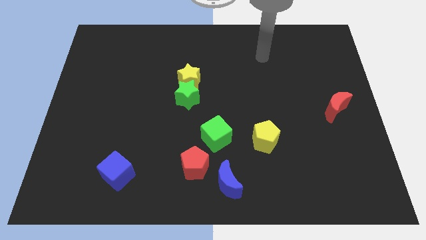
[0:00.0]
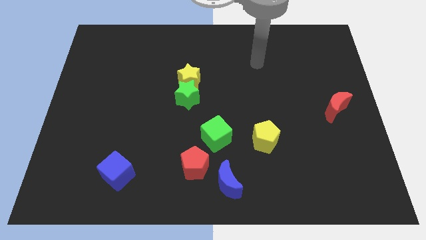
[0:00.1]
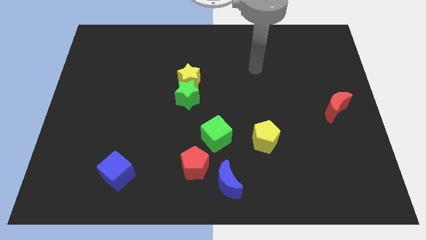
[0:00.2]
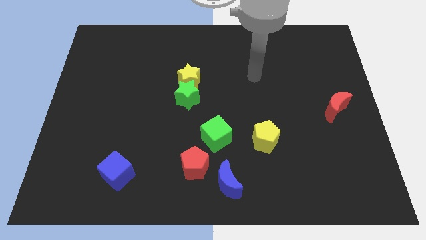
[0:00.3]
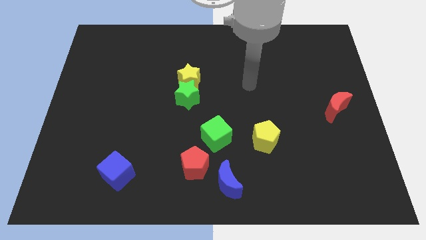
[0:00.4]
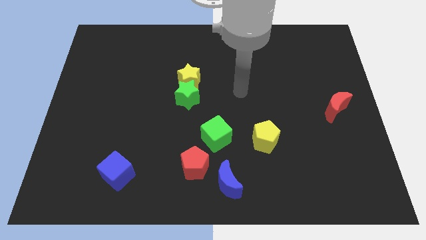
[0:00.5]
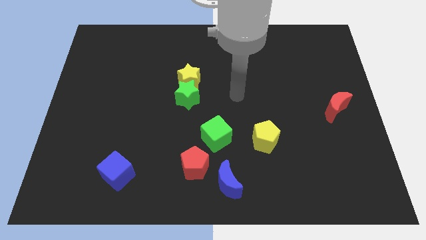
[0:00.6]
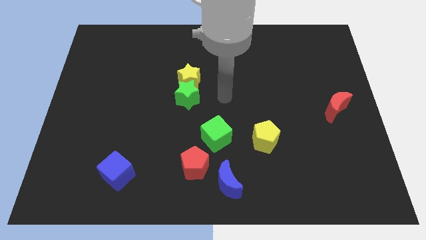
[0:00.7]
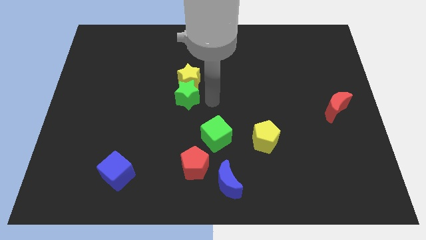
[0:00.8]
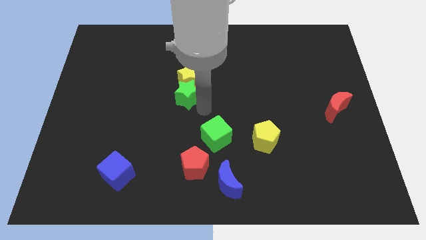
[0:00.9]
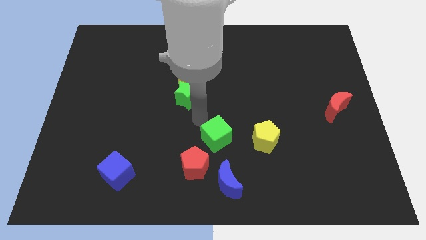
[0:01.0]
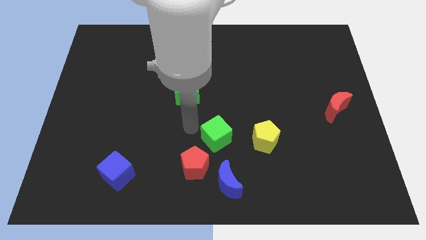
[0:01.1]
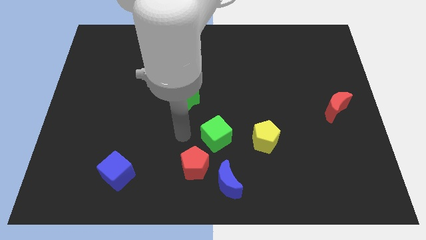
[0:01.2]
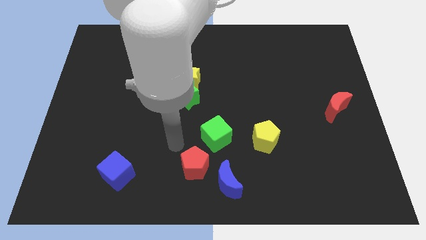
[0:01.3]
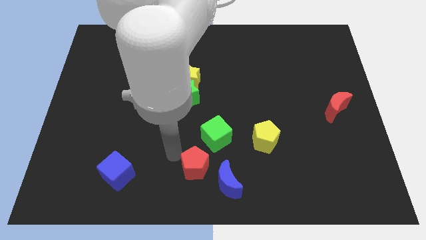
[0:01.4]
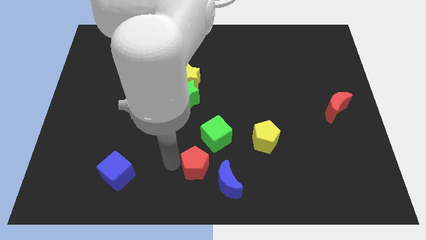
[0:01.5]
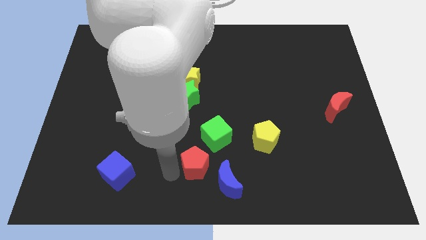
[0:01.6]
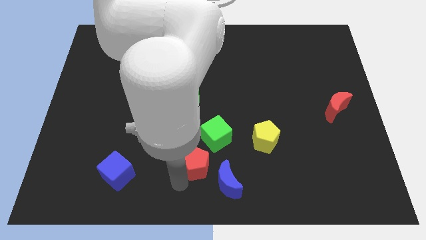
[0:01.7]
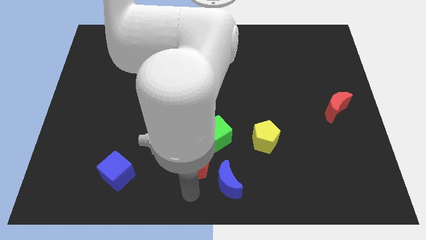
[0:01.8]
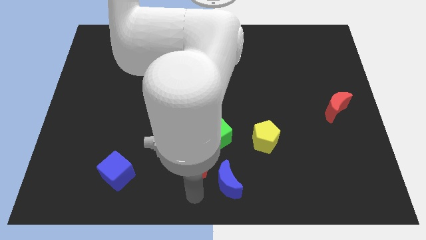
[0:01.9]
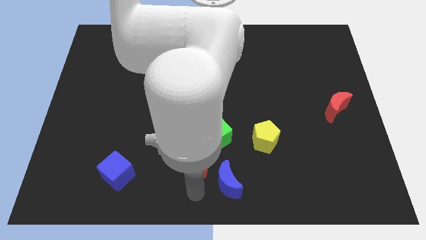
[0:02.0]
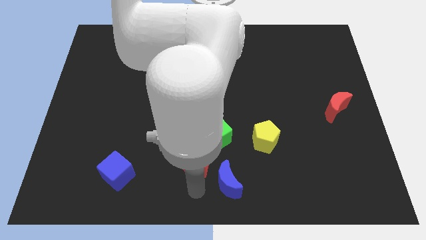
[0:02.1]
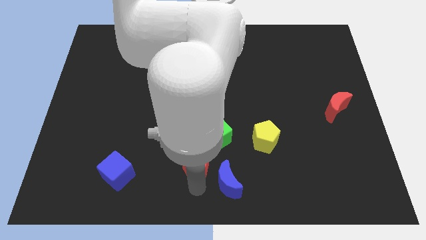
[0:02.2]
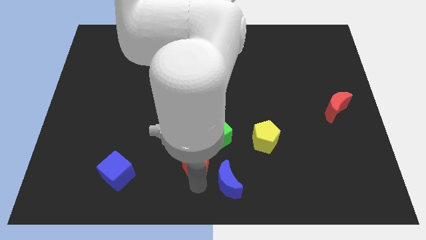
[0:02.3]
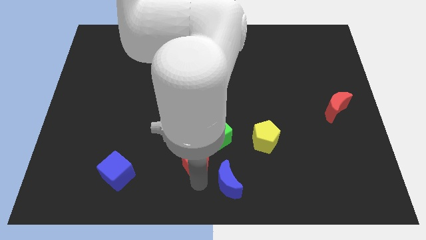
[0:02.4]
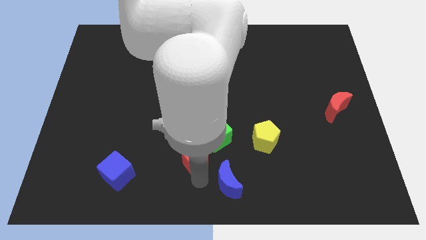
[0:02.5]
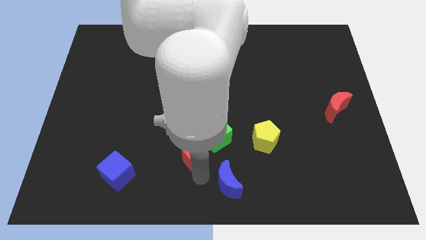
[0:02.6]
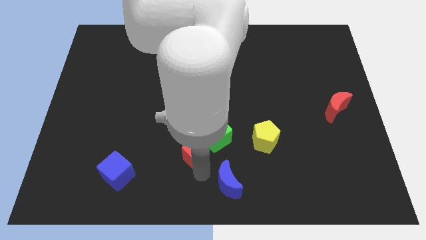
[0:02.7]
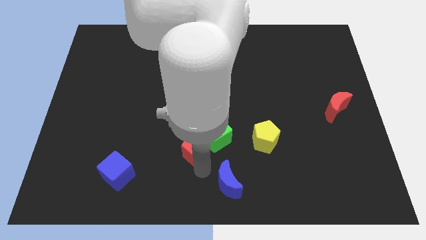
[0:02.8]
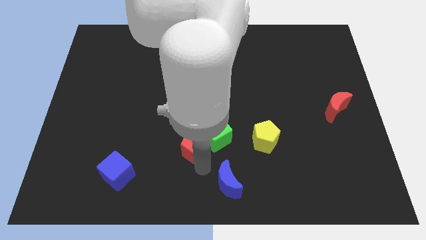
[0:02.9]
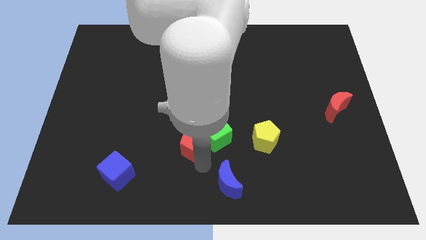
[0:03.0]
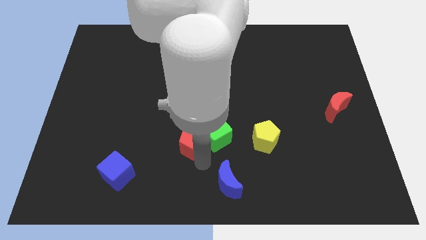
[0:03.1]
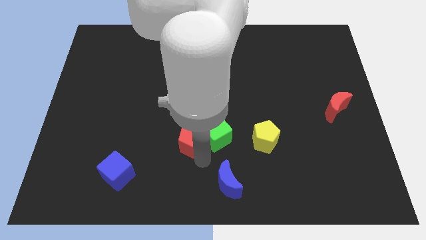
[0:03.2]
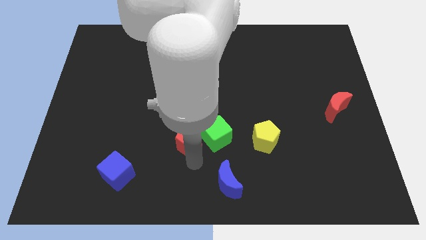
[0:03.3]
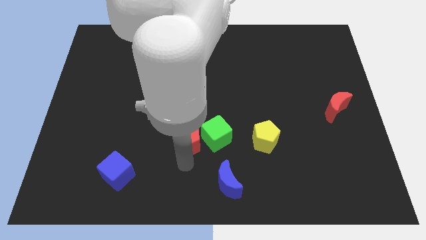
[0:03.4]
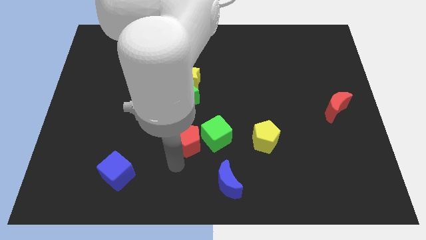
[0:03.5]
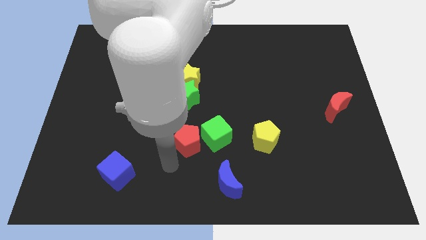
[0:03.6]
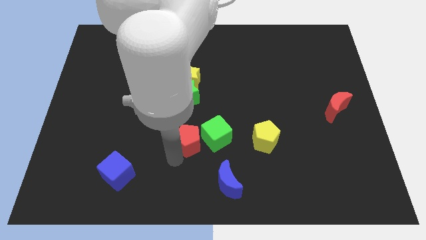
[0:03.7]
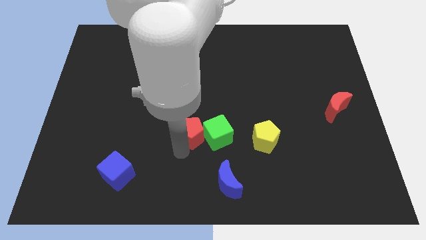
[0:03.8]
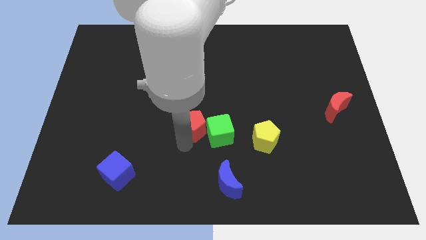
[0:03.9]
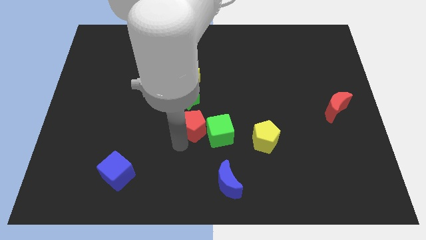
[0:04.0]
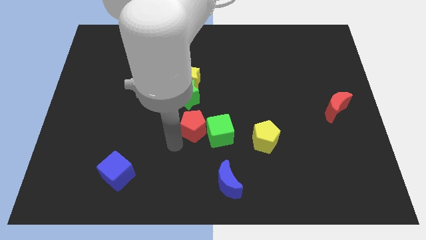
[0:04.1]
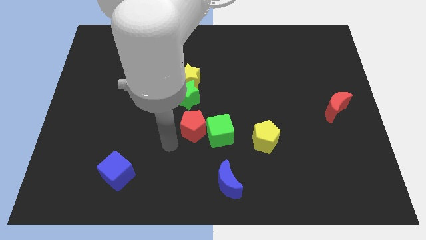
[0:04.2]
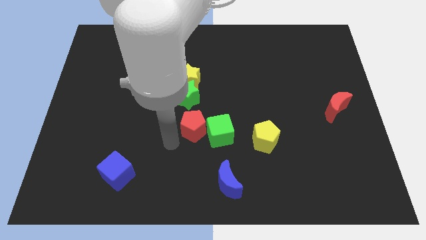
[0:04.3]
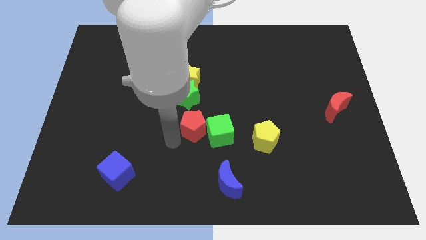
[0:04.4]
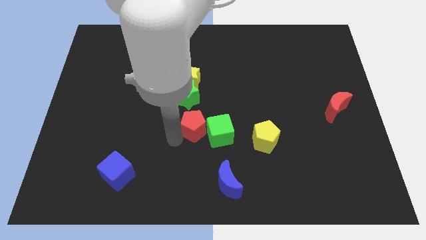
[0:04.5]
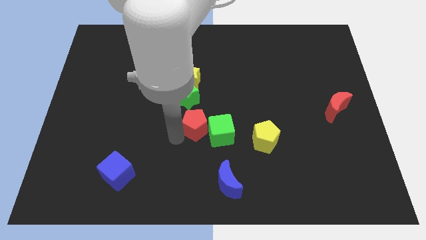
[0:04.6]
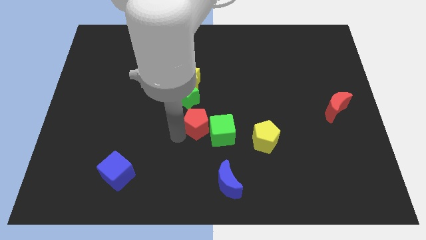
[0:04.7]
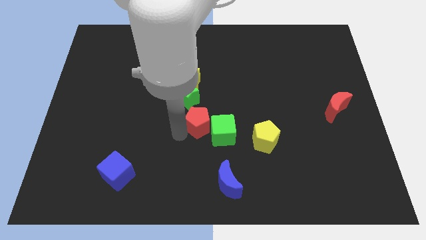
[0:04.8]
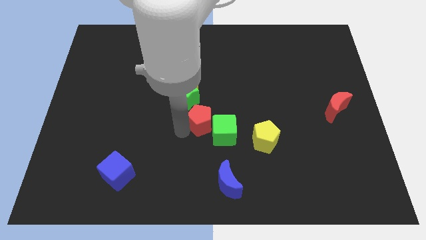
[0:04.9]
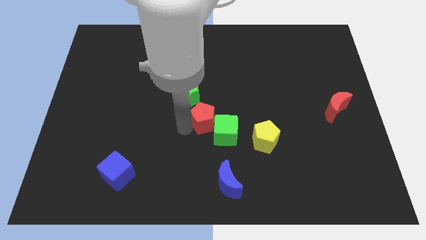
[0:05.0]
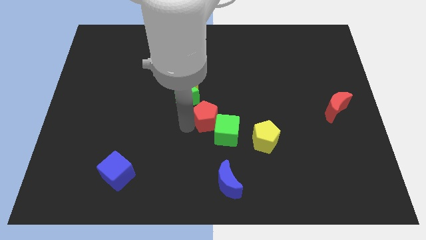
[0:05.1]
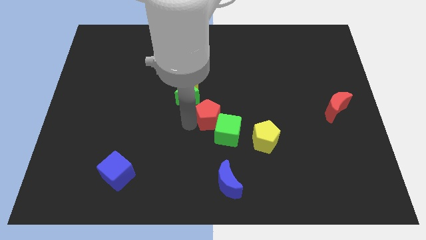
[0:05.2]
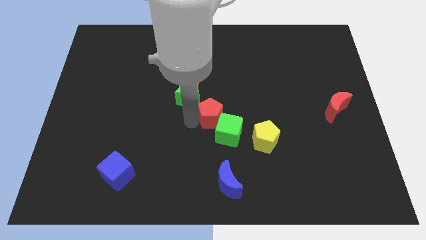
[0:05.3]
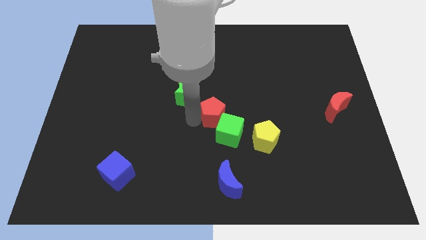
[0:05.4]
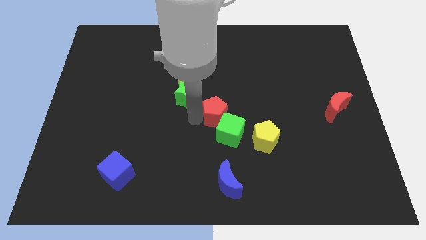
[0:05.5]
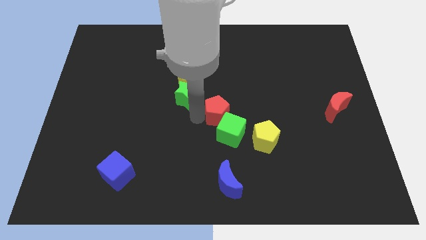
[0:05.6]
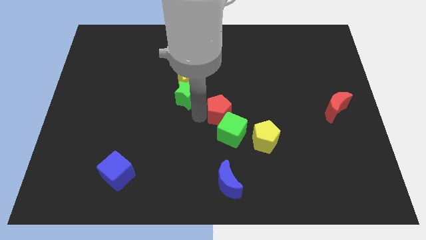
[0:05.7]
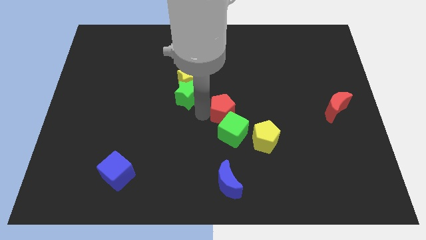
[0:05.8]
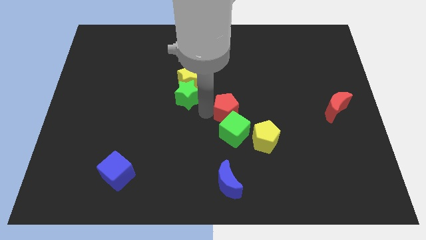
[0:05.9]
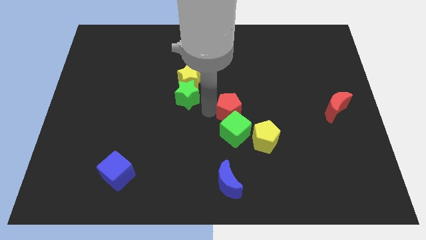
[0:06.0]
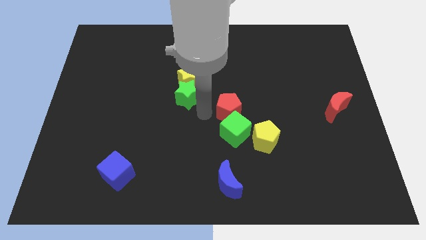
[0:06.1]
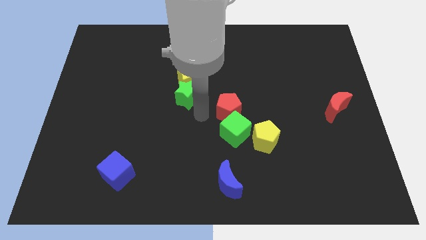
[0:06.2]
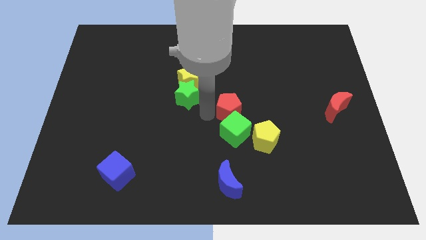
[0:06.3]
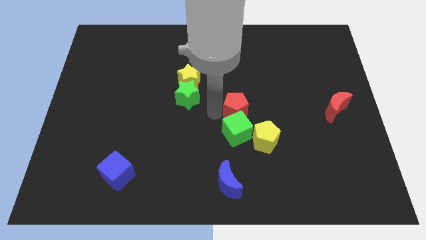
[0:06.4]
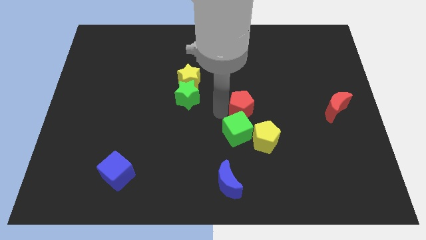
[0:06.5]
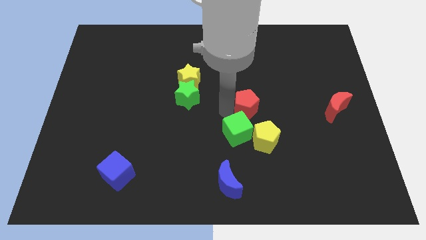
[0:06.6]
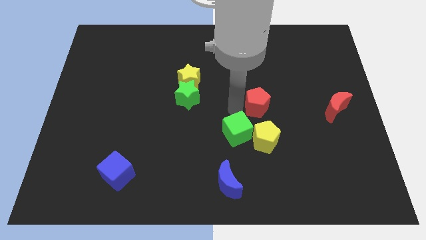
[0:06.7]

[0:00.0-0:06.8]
push the red pentagon up and right diagonally

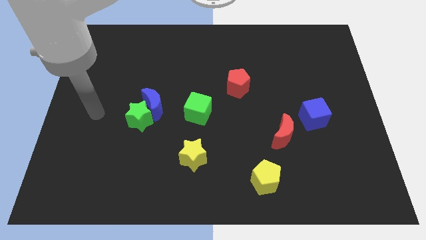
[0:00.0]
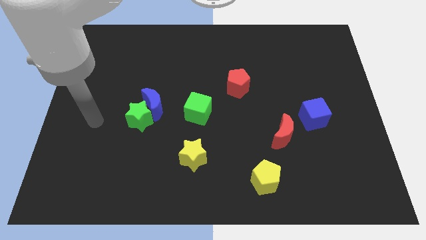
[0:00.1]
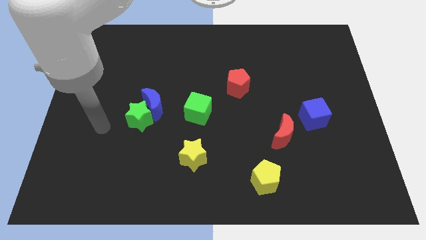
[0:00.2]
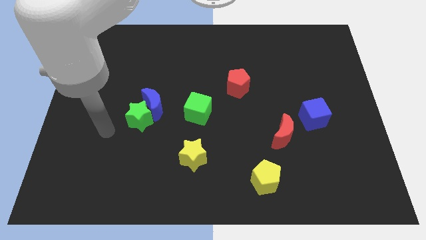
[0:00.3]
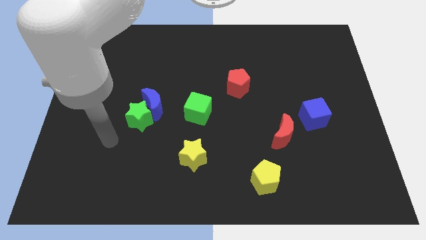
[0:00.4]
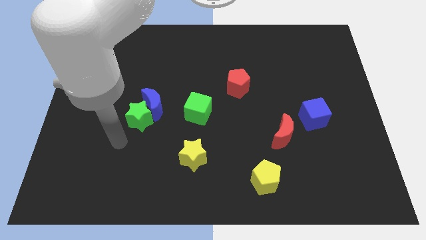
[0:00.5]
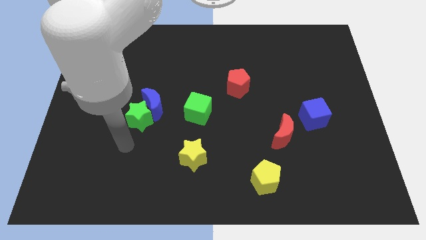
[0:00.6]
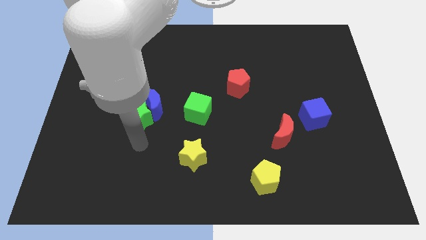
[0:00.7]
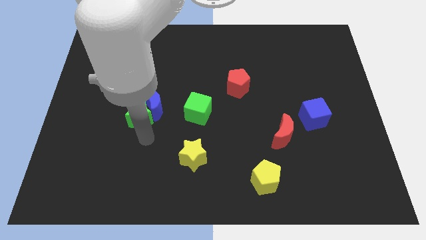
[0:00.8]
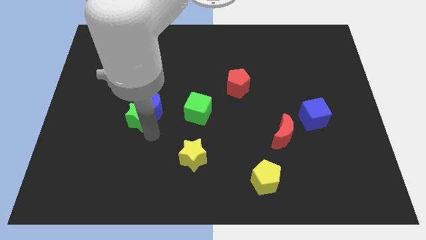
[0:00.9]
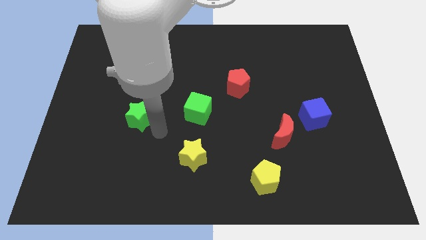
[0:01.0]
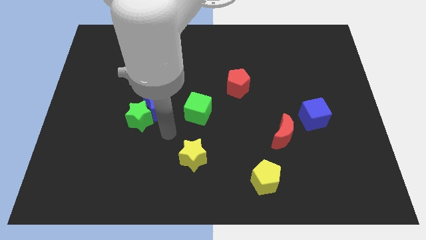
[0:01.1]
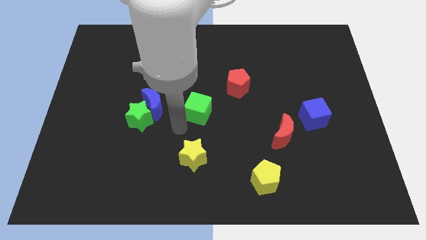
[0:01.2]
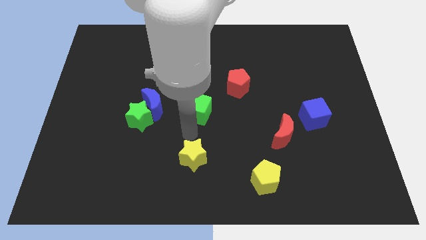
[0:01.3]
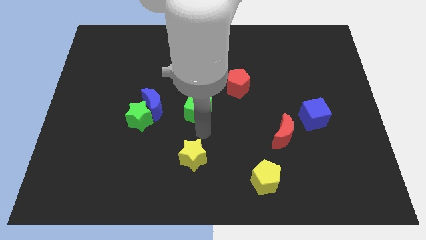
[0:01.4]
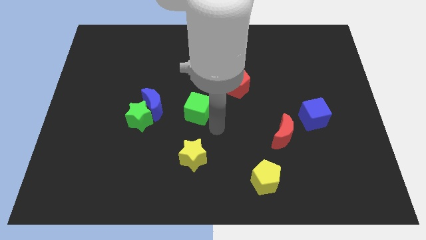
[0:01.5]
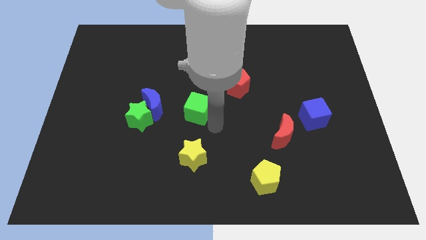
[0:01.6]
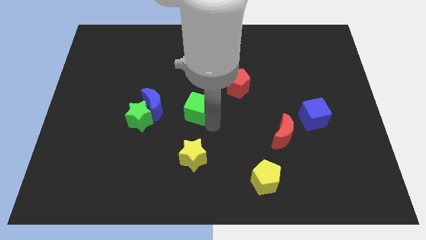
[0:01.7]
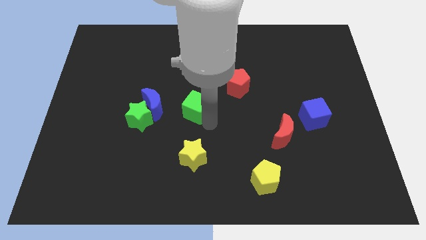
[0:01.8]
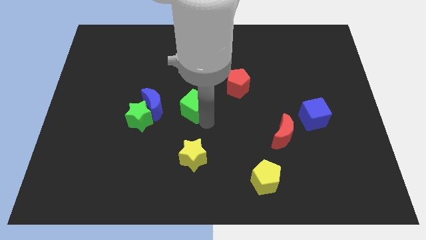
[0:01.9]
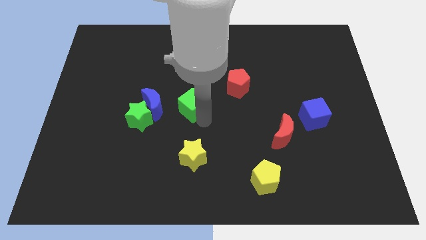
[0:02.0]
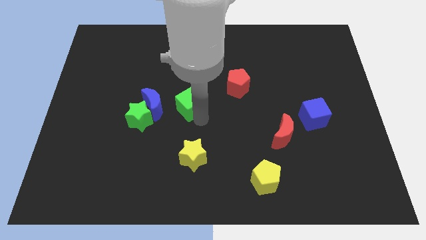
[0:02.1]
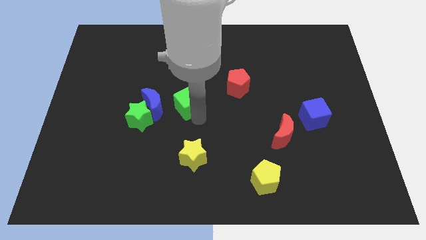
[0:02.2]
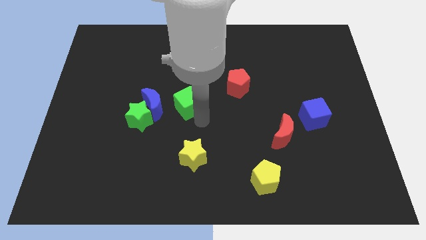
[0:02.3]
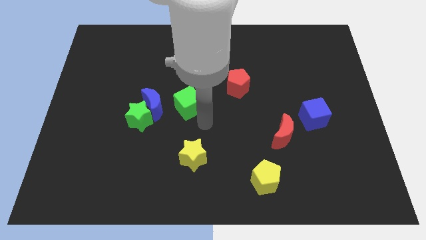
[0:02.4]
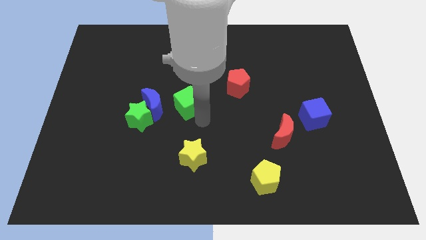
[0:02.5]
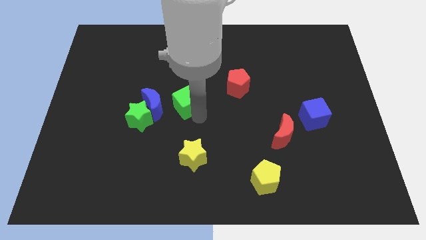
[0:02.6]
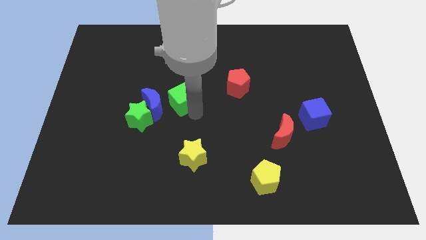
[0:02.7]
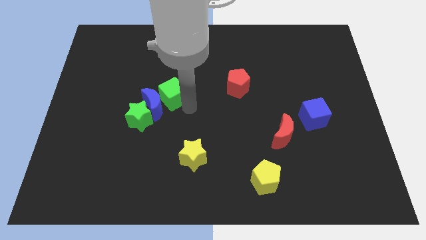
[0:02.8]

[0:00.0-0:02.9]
slide the green cube upwards and then left slightly
